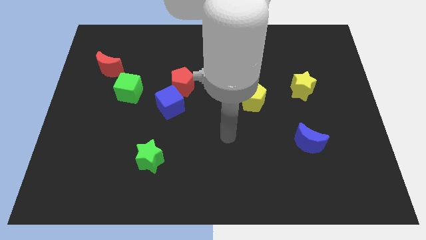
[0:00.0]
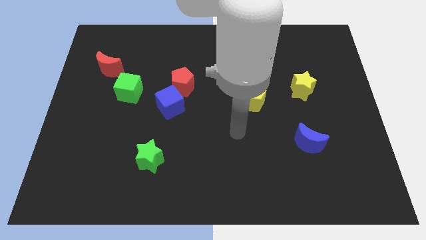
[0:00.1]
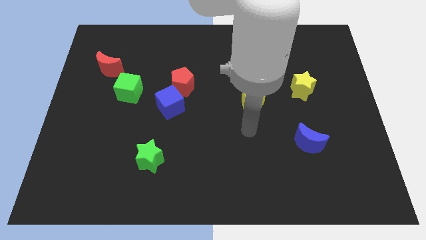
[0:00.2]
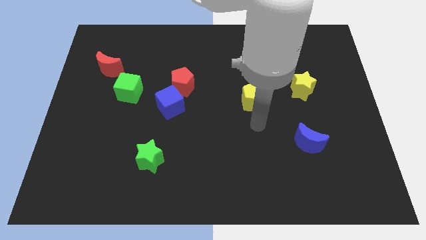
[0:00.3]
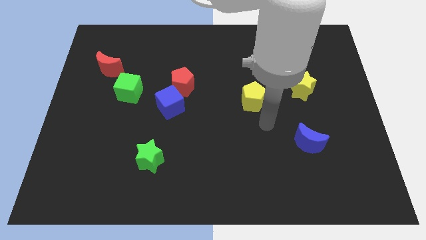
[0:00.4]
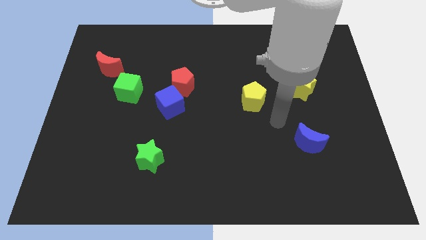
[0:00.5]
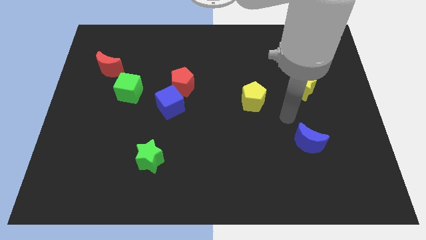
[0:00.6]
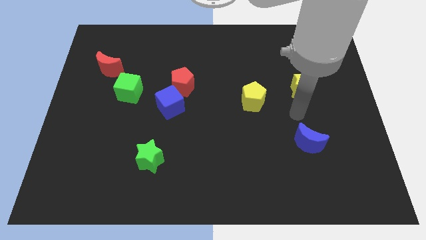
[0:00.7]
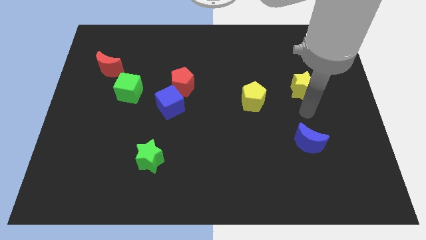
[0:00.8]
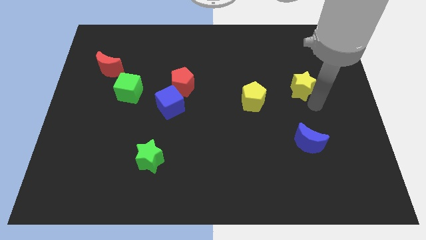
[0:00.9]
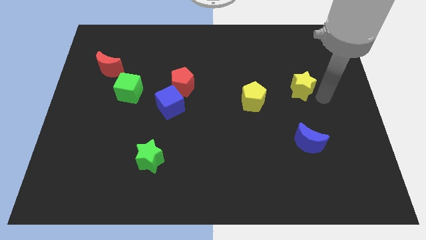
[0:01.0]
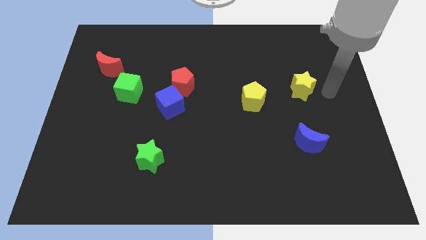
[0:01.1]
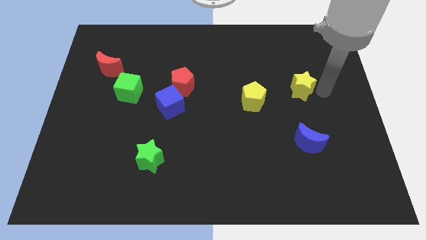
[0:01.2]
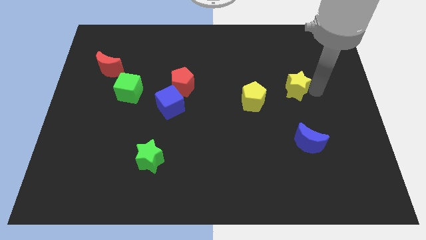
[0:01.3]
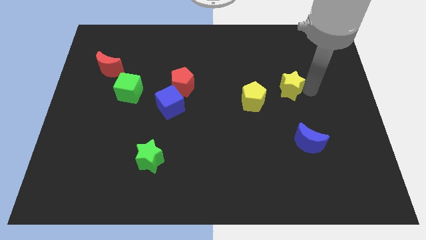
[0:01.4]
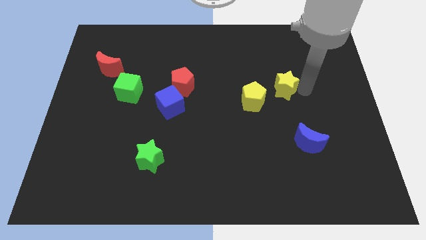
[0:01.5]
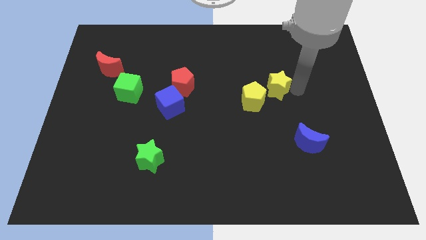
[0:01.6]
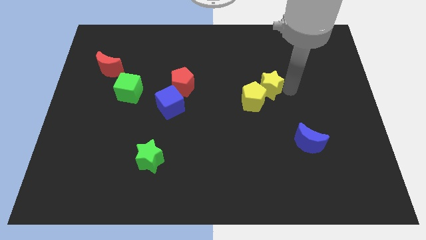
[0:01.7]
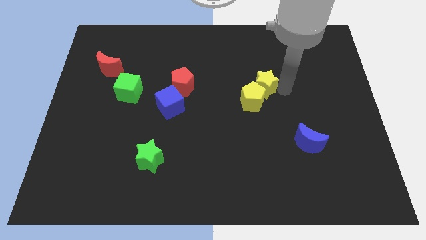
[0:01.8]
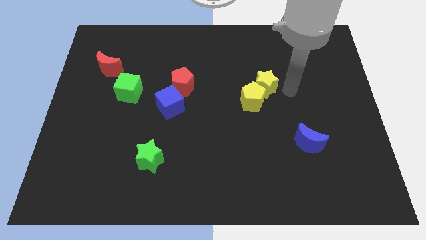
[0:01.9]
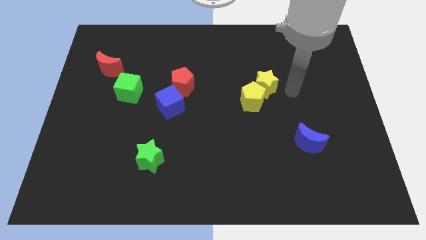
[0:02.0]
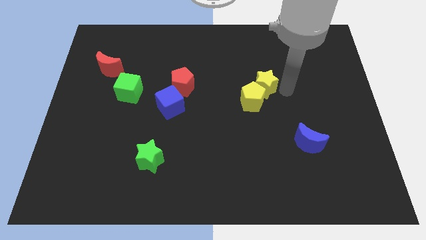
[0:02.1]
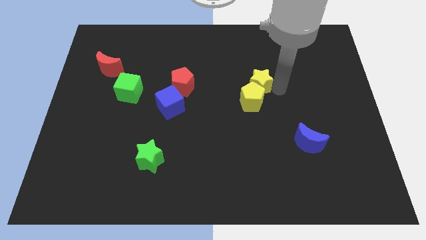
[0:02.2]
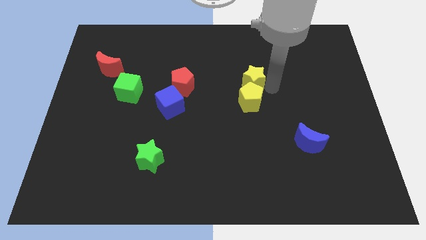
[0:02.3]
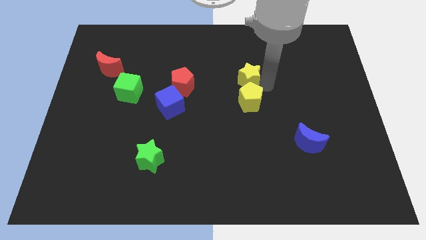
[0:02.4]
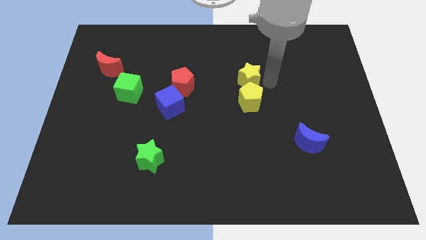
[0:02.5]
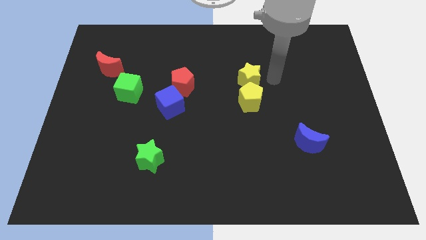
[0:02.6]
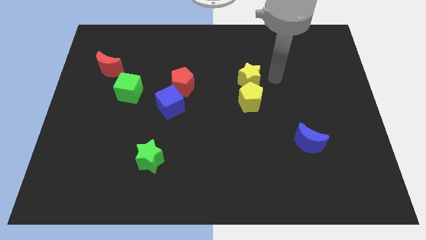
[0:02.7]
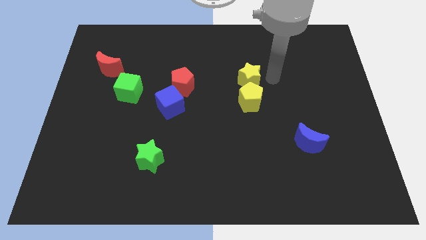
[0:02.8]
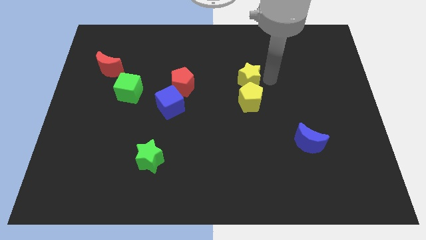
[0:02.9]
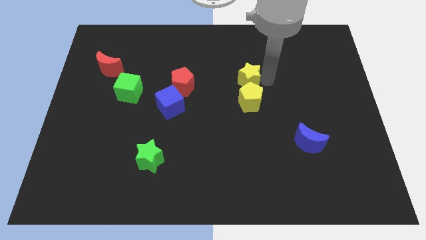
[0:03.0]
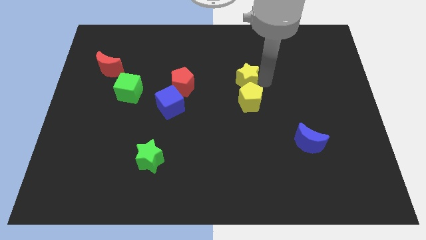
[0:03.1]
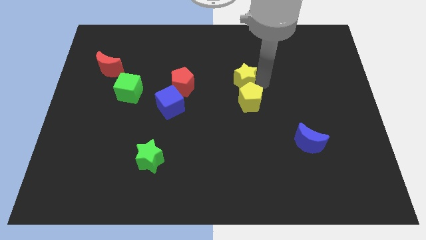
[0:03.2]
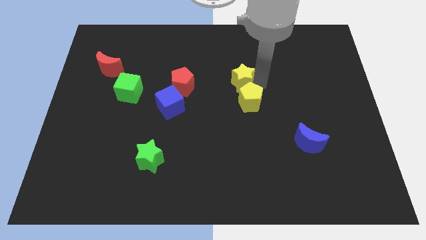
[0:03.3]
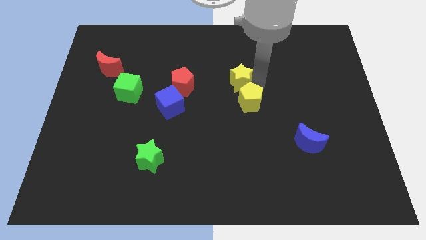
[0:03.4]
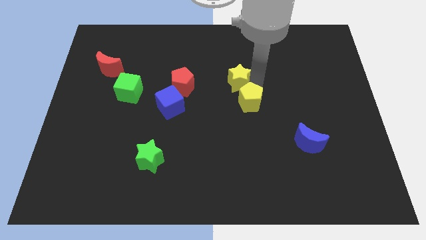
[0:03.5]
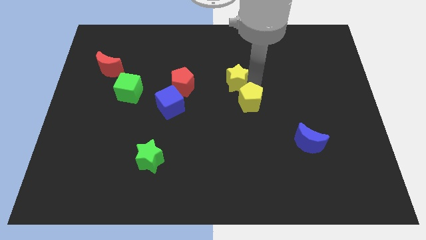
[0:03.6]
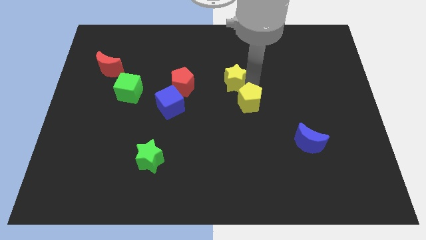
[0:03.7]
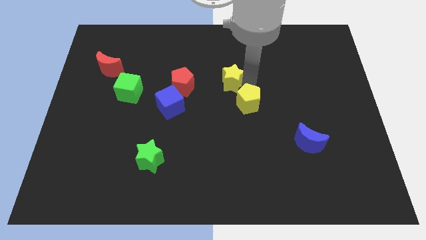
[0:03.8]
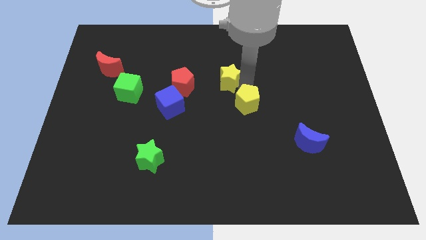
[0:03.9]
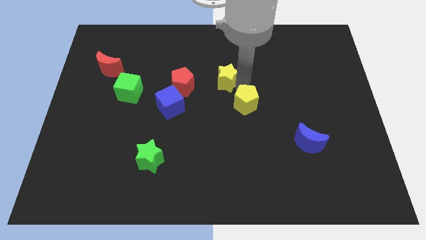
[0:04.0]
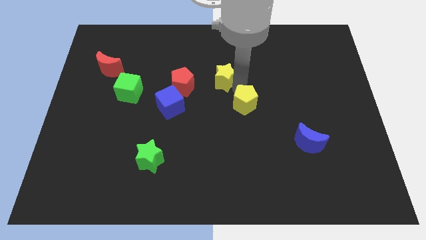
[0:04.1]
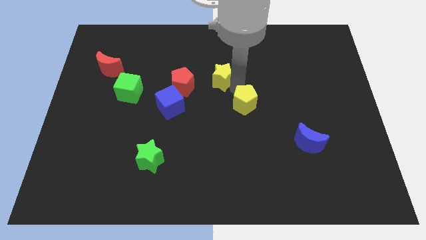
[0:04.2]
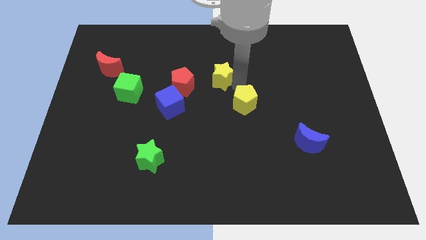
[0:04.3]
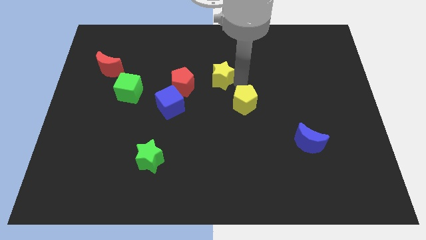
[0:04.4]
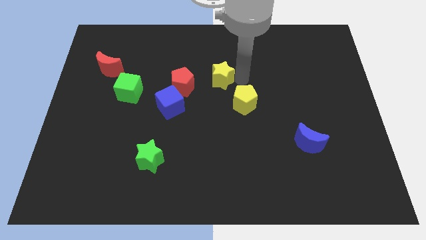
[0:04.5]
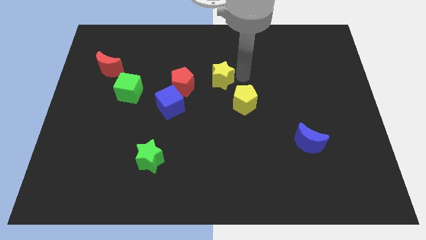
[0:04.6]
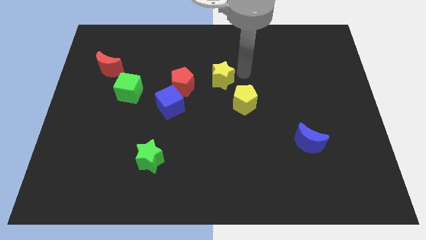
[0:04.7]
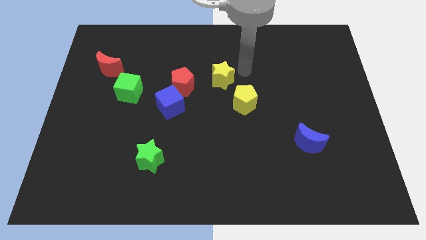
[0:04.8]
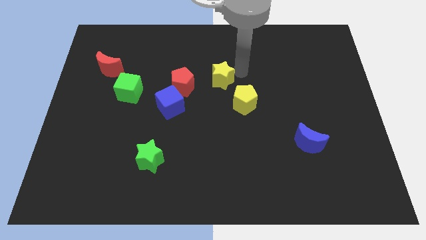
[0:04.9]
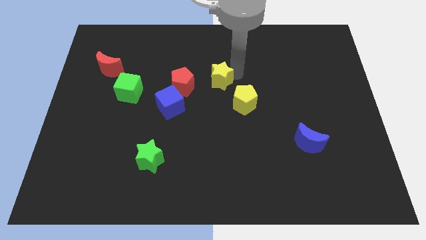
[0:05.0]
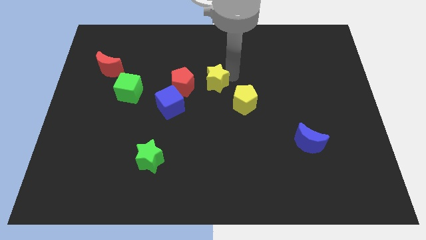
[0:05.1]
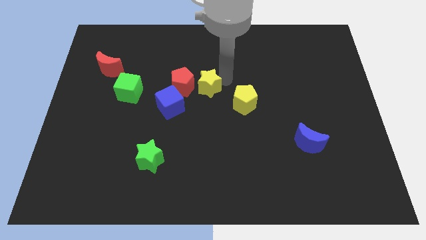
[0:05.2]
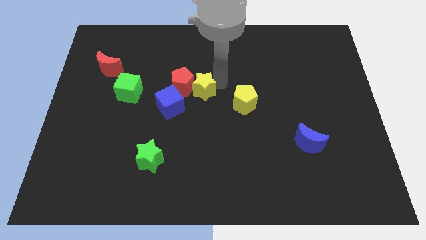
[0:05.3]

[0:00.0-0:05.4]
slide the yellow star to the red pentagon

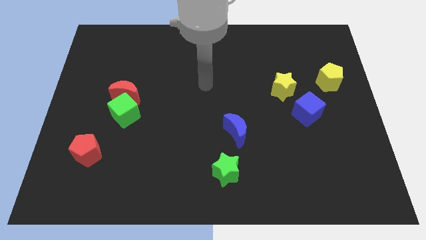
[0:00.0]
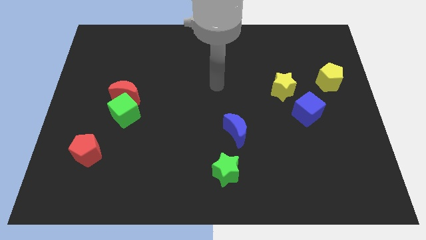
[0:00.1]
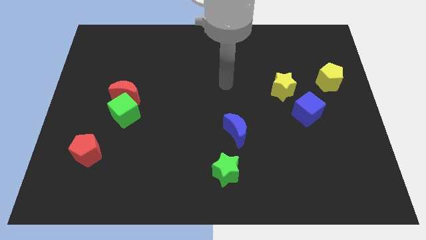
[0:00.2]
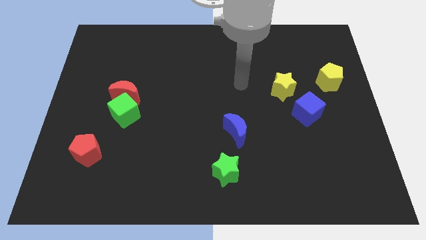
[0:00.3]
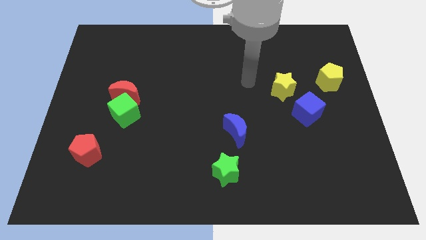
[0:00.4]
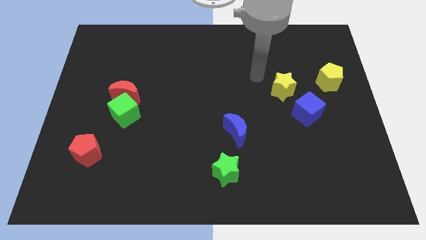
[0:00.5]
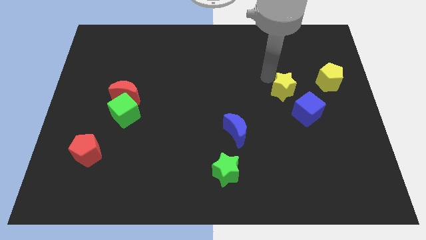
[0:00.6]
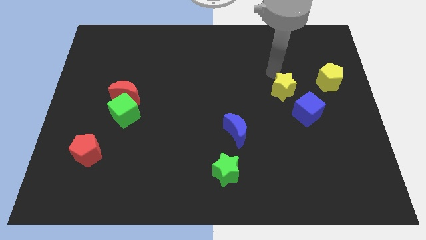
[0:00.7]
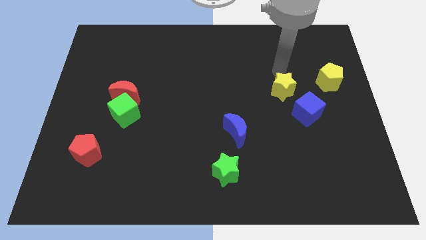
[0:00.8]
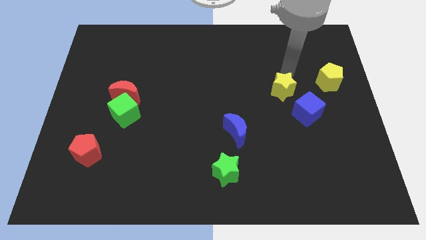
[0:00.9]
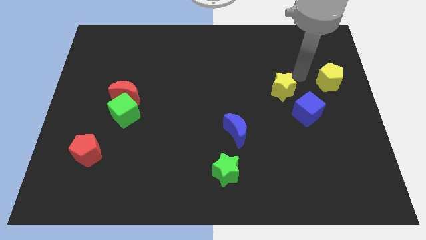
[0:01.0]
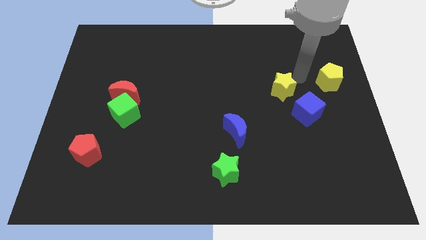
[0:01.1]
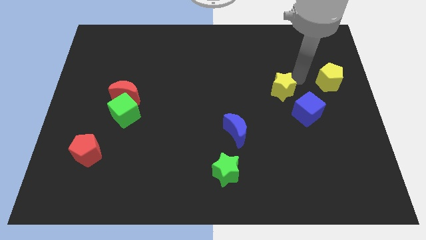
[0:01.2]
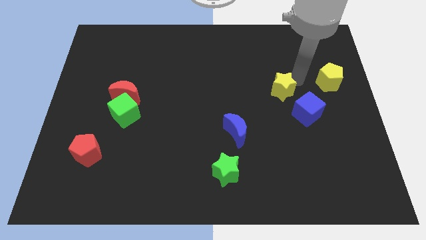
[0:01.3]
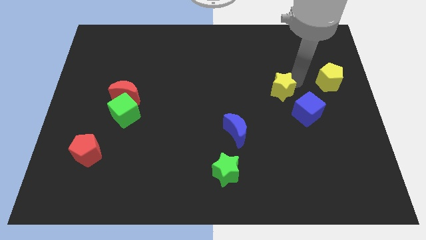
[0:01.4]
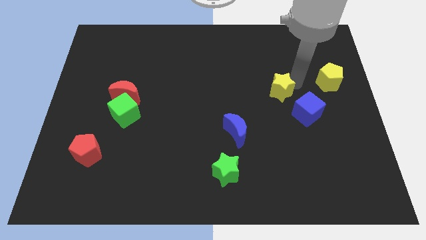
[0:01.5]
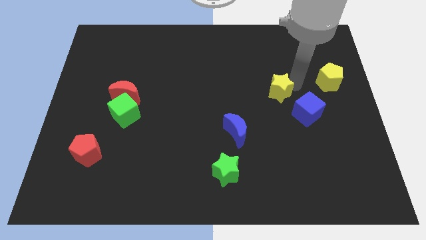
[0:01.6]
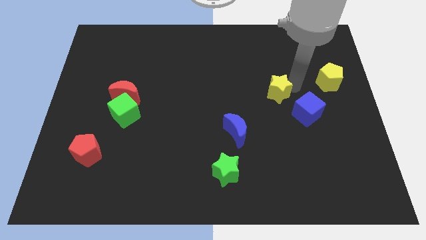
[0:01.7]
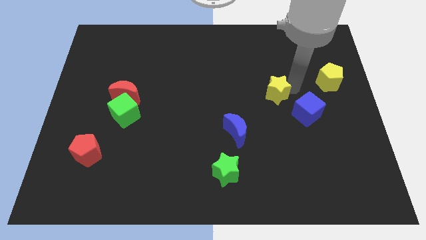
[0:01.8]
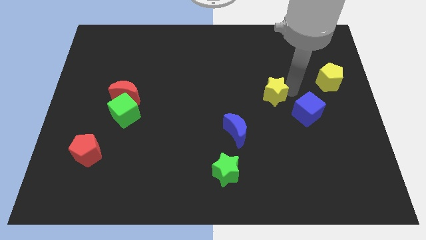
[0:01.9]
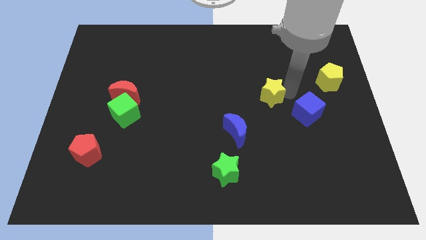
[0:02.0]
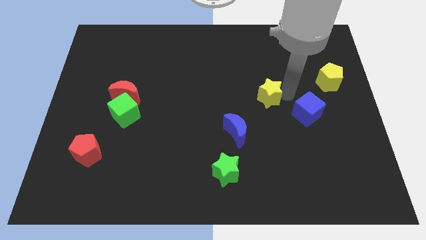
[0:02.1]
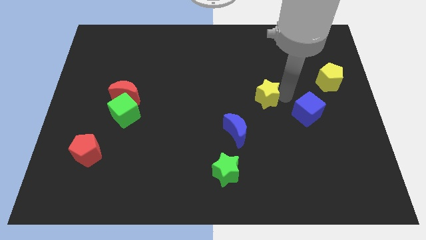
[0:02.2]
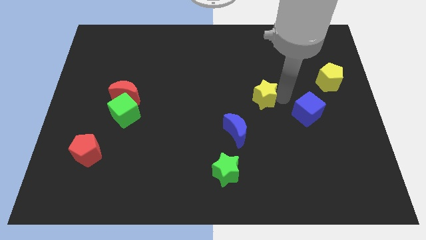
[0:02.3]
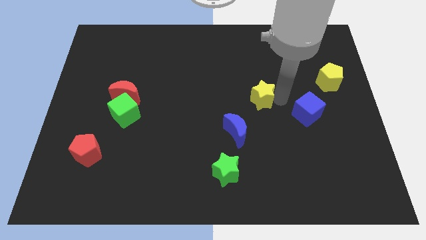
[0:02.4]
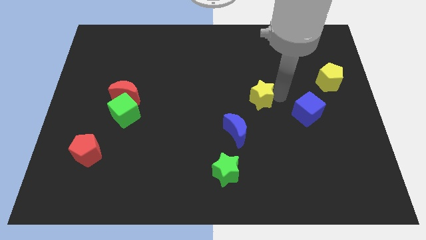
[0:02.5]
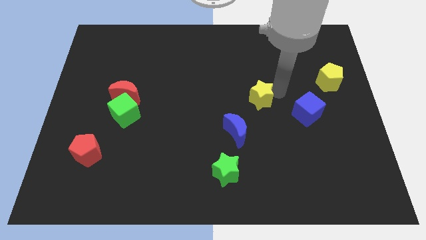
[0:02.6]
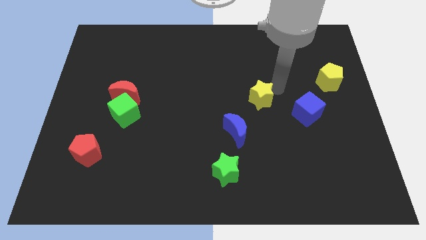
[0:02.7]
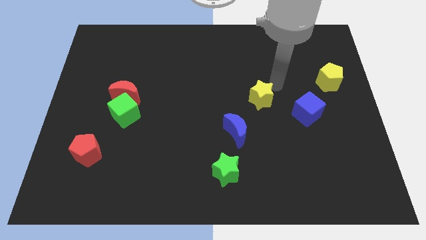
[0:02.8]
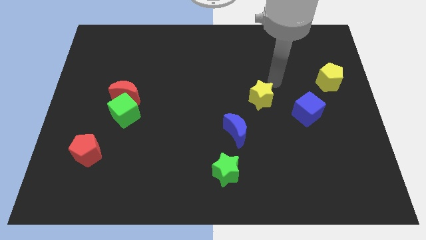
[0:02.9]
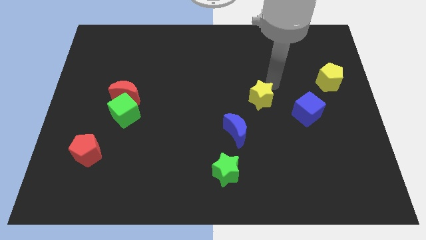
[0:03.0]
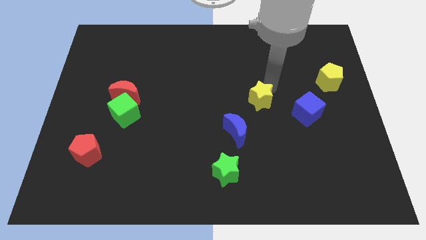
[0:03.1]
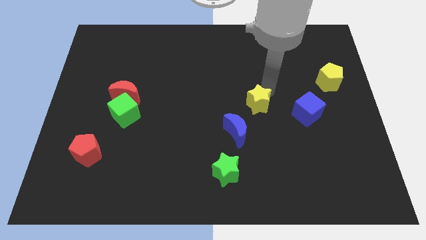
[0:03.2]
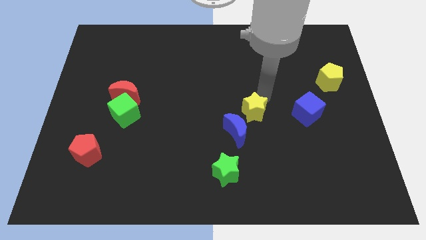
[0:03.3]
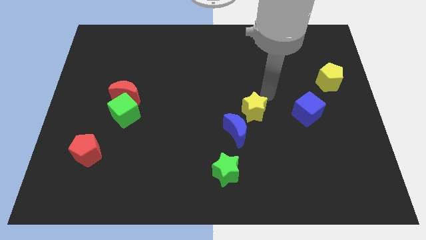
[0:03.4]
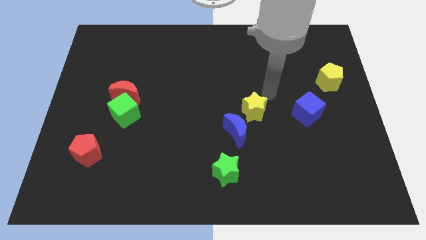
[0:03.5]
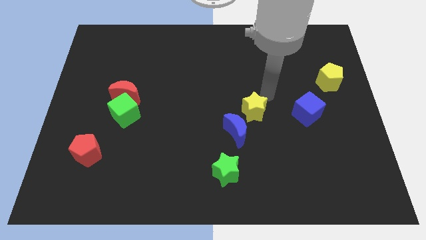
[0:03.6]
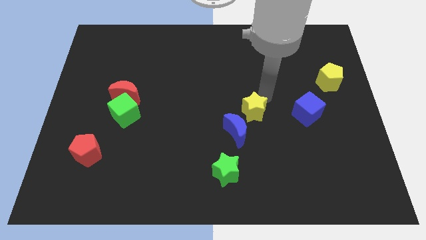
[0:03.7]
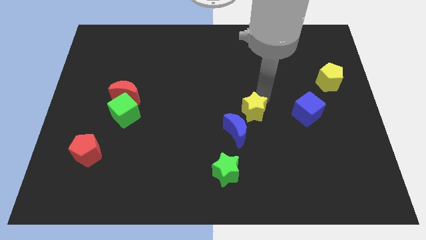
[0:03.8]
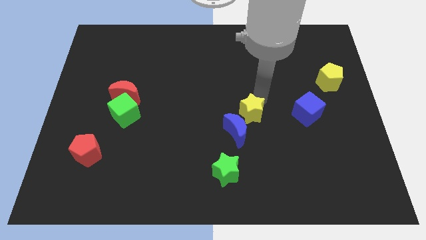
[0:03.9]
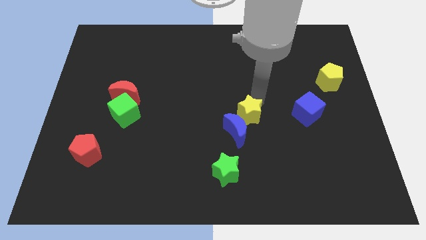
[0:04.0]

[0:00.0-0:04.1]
slide the yellow star to the blue moon
